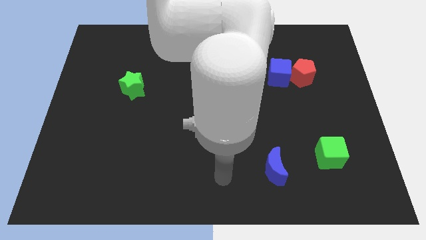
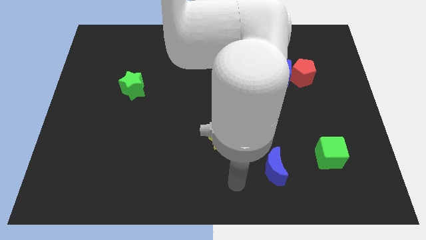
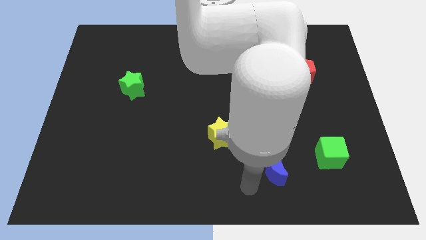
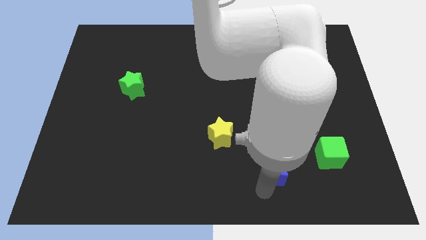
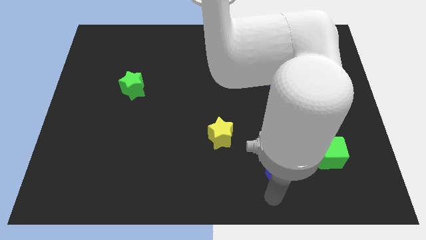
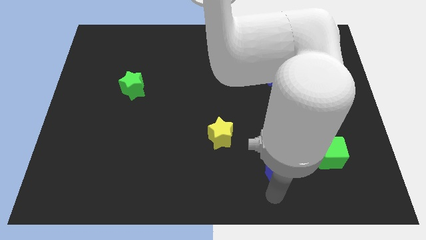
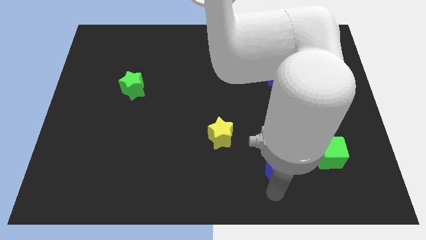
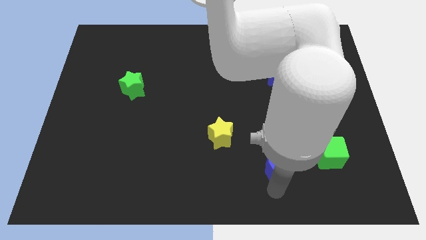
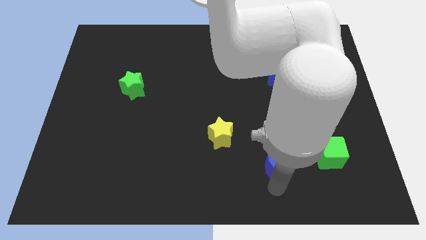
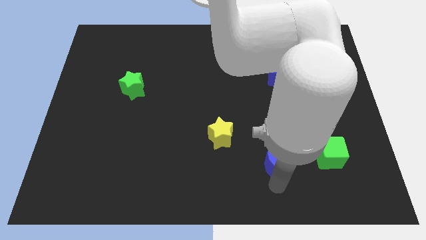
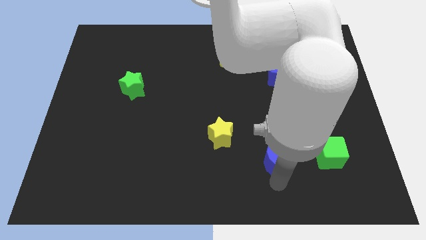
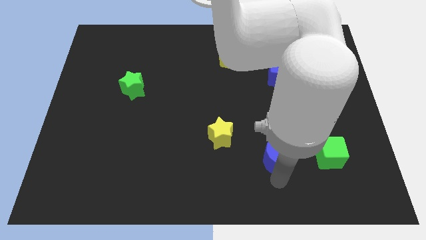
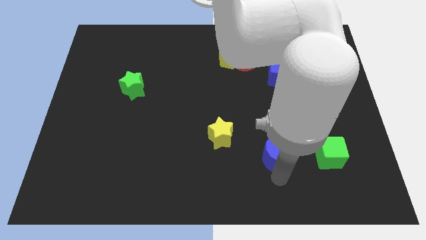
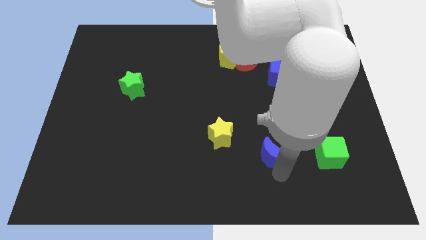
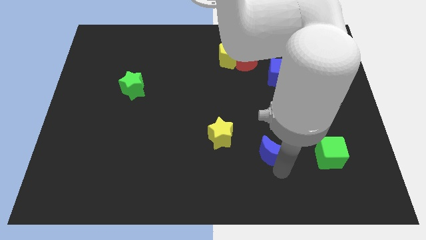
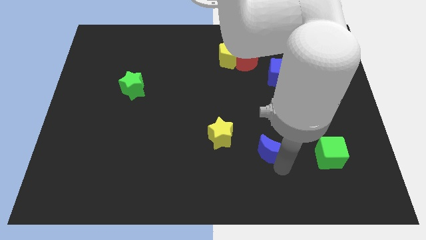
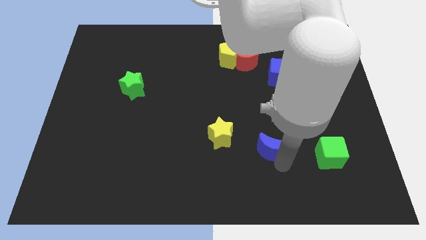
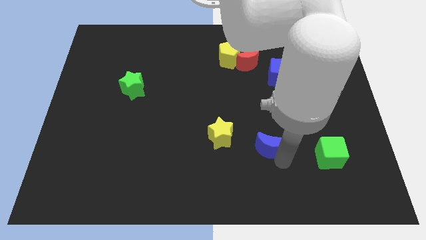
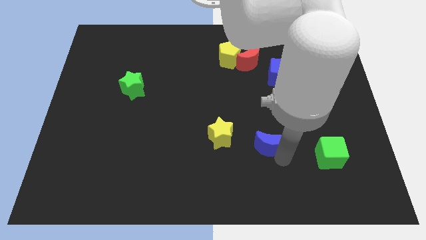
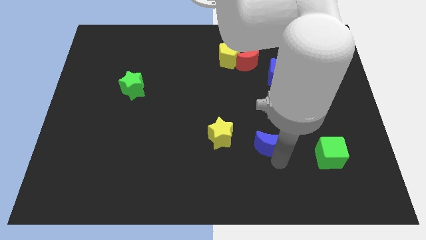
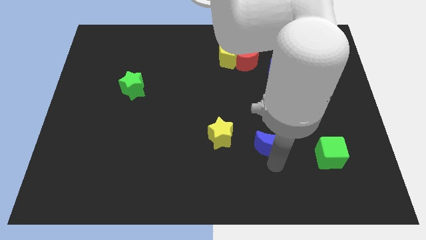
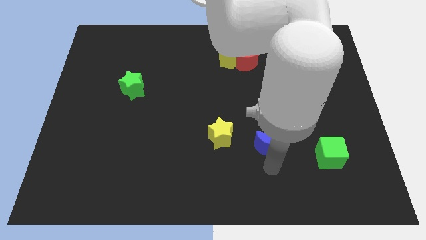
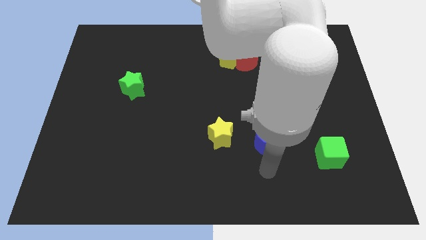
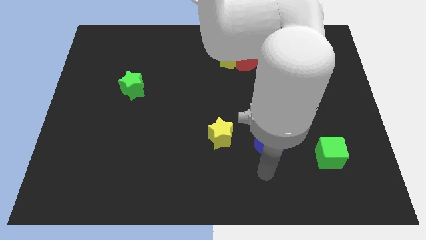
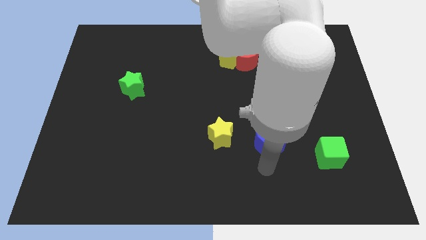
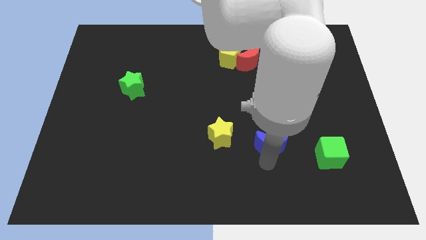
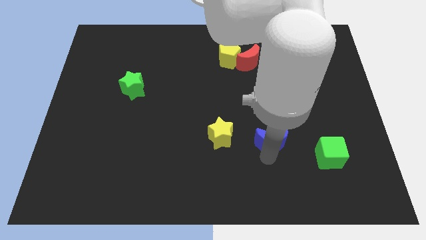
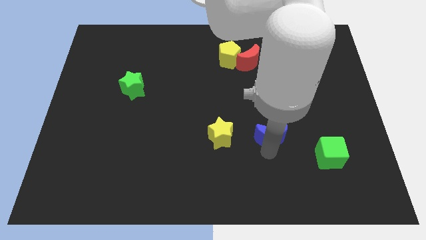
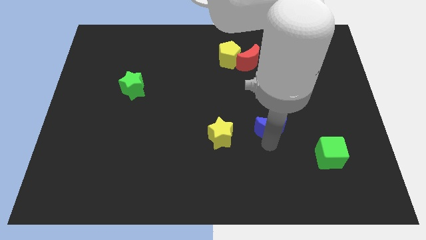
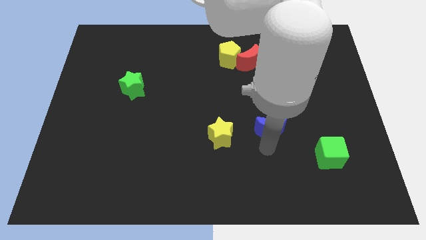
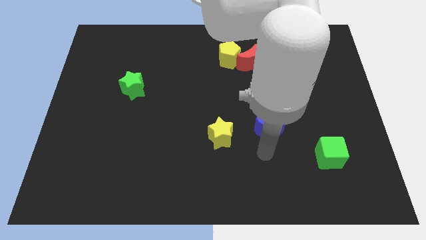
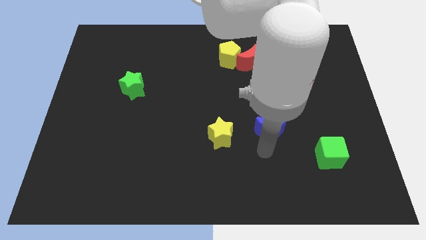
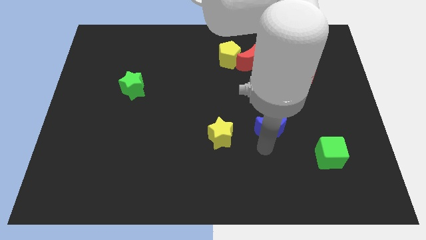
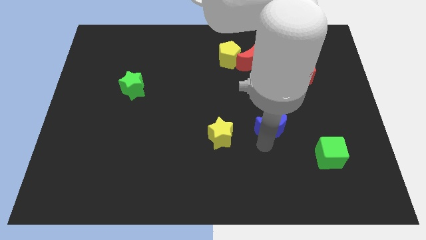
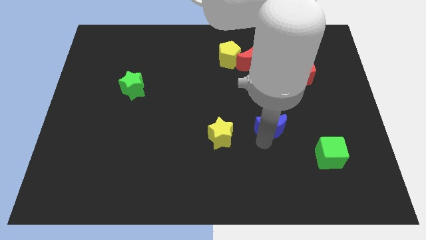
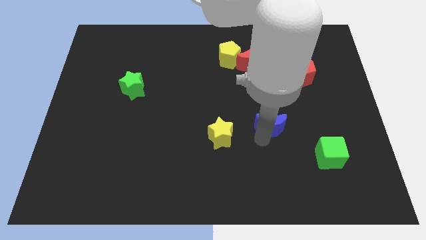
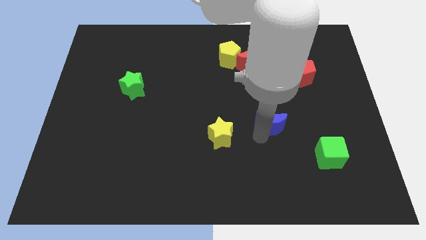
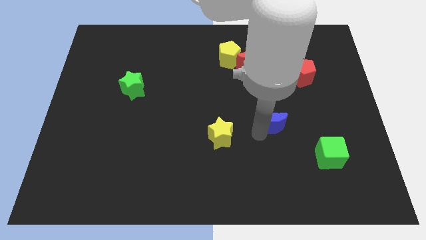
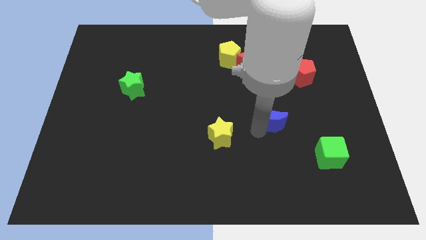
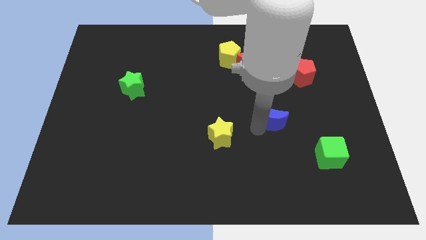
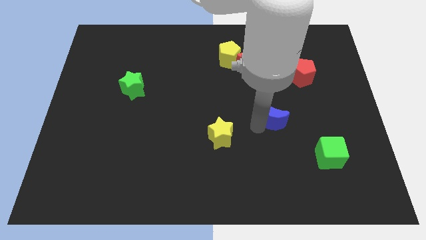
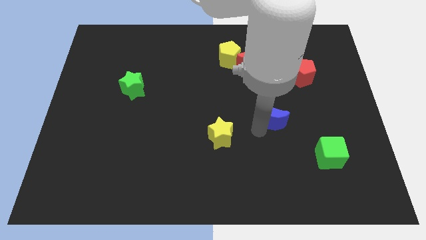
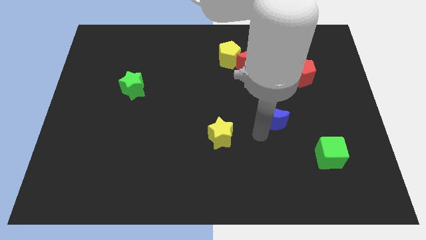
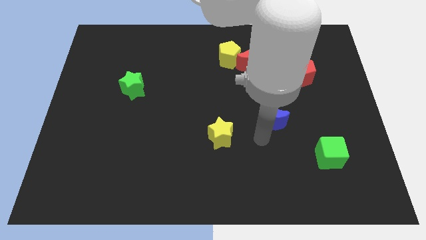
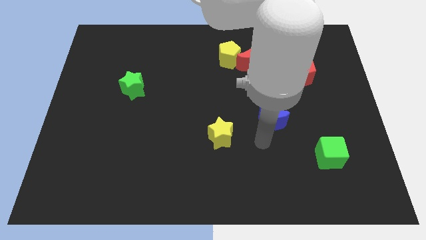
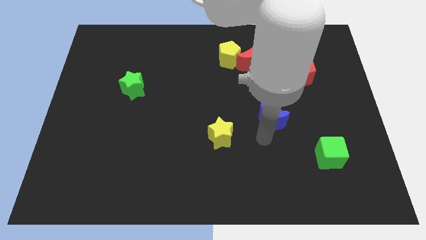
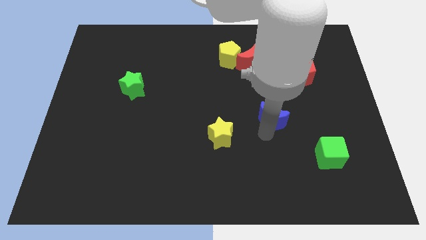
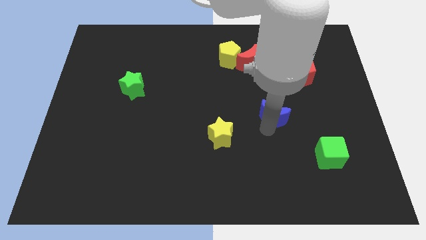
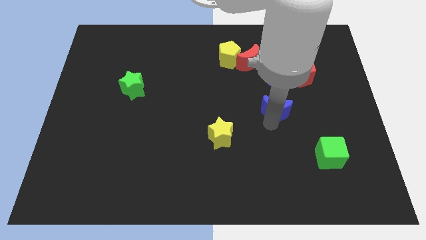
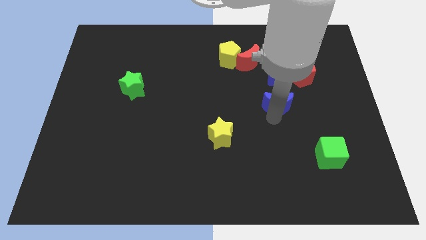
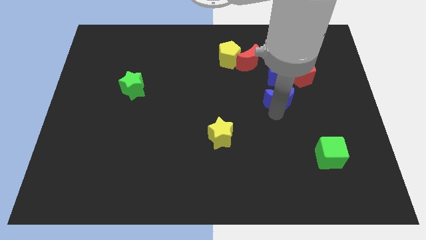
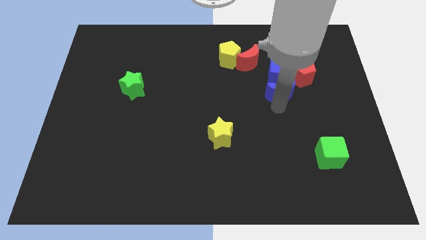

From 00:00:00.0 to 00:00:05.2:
move the blue moon towards the blue cube

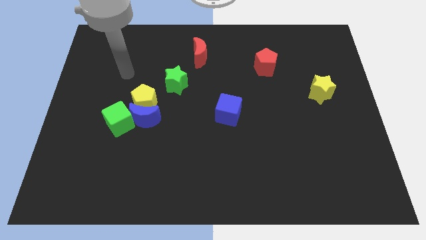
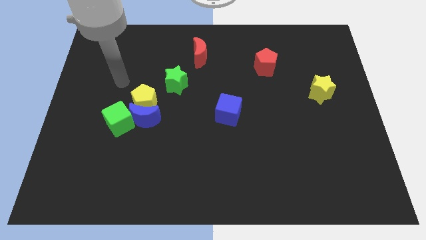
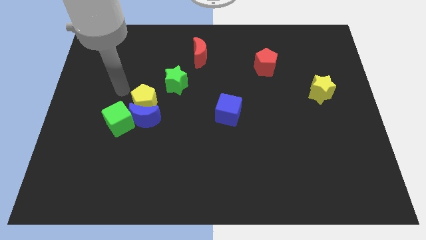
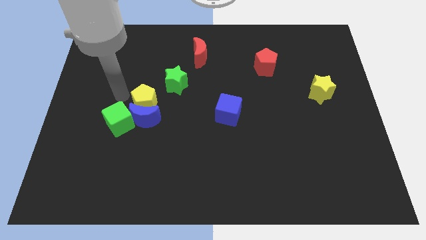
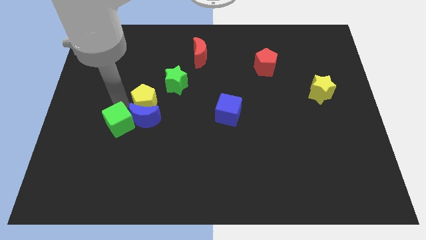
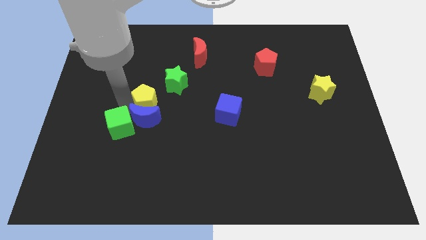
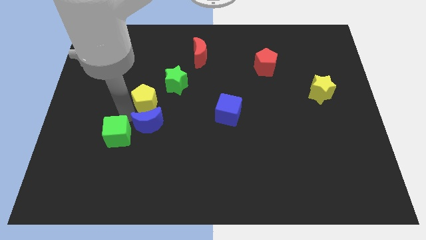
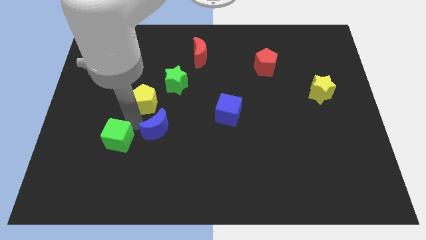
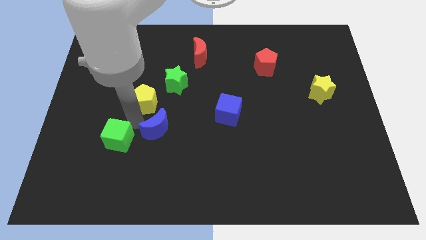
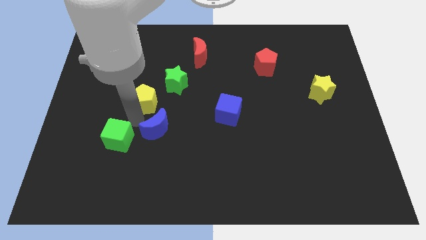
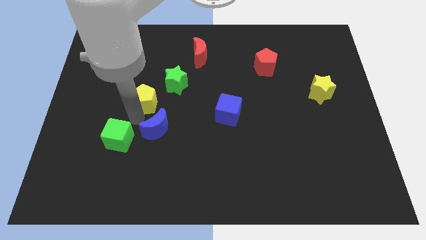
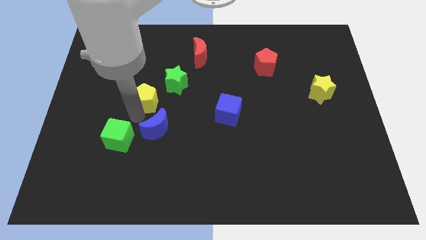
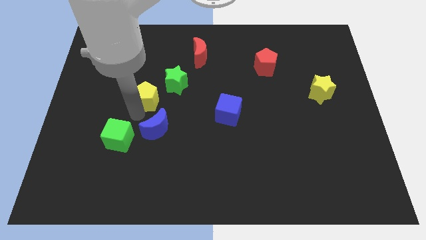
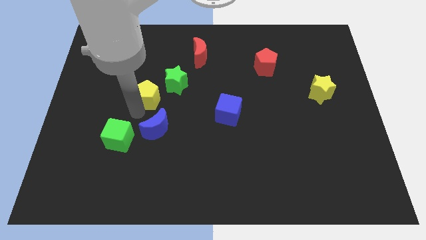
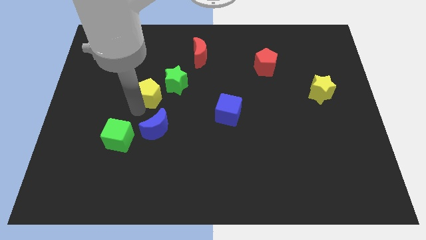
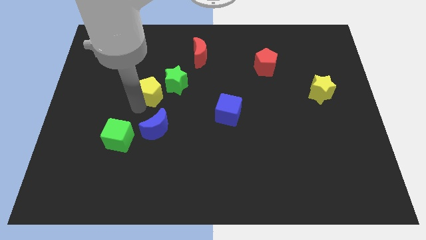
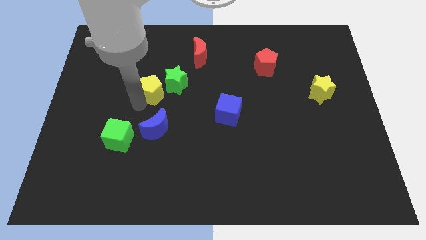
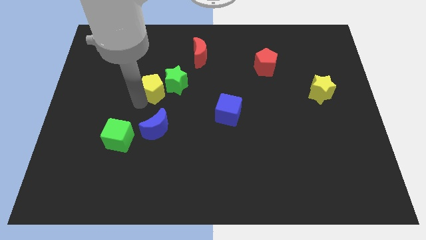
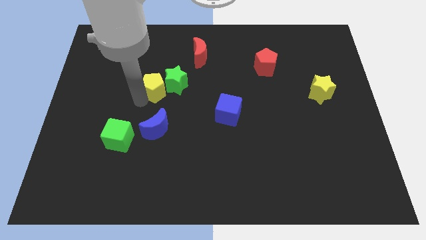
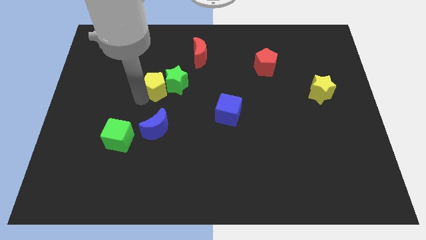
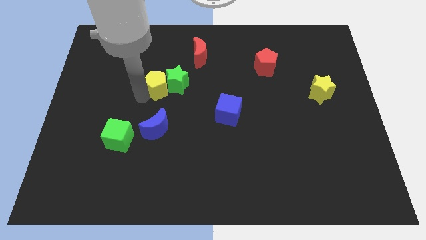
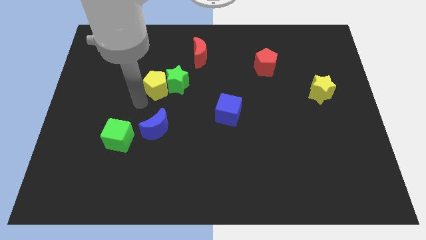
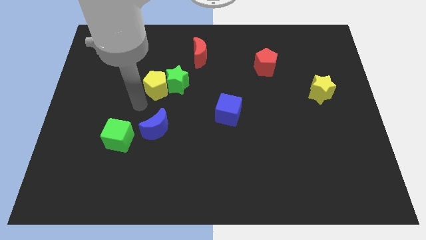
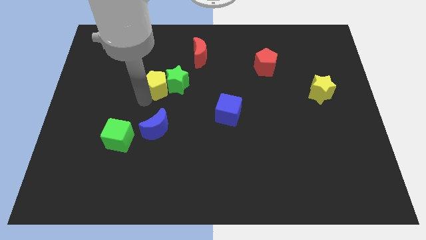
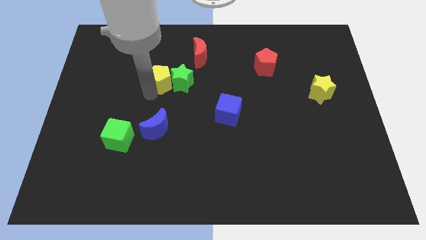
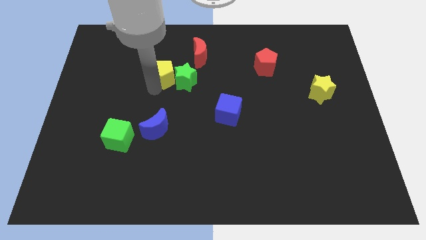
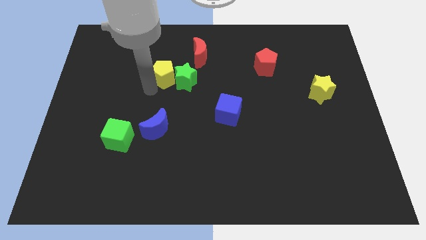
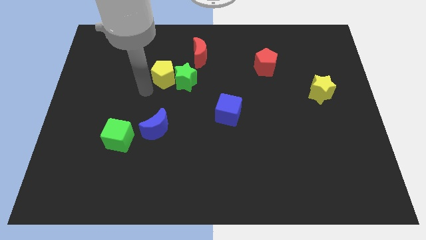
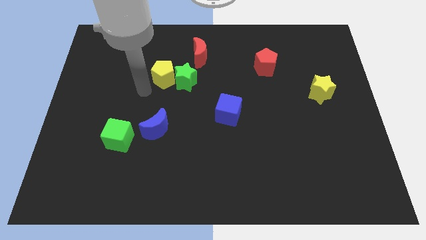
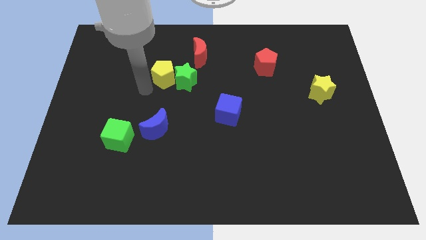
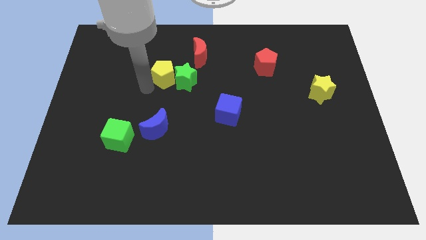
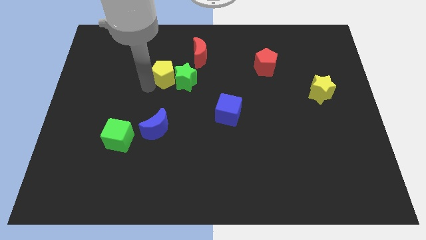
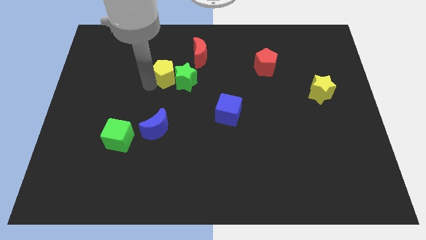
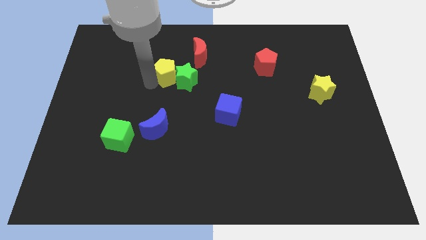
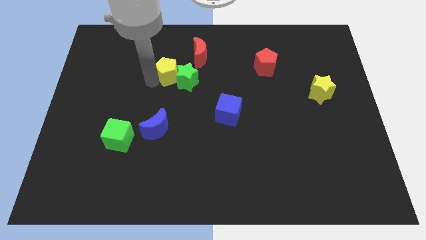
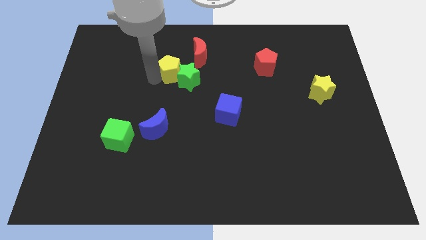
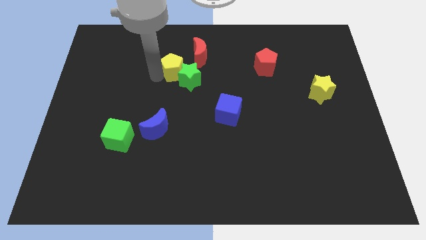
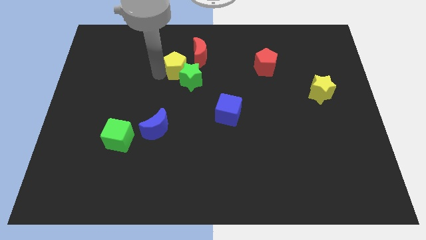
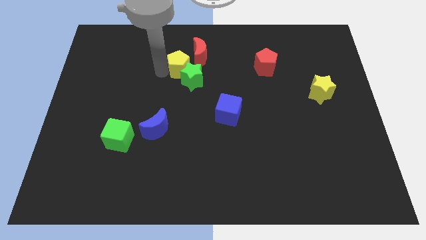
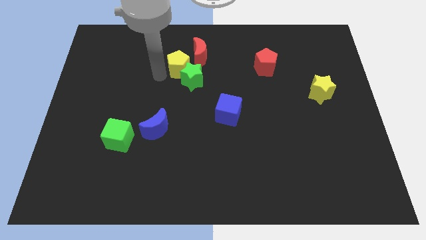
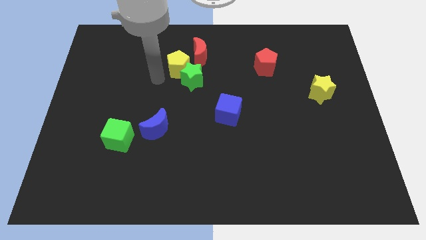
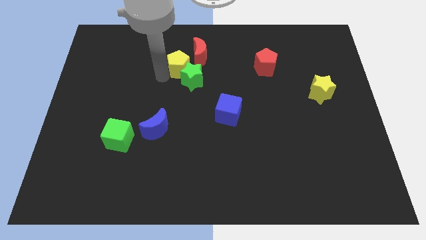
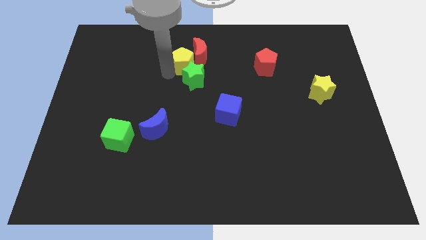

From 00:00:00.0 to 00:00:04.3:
push the yellow pentagon close to the red moon
